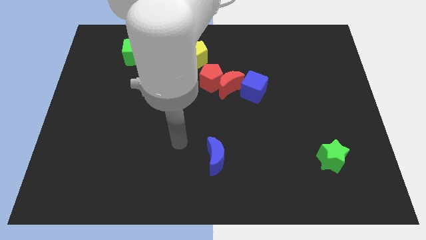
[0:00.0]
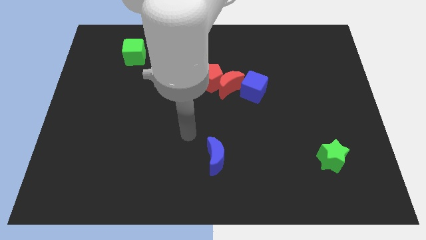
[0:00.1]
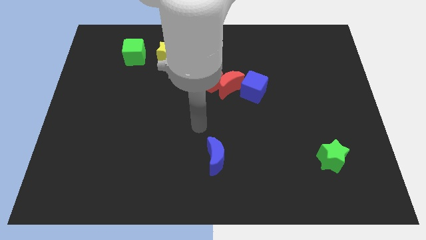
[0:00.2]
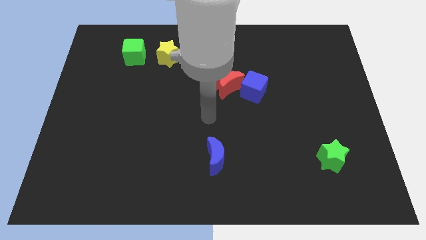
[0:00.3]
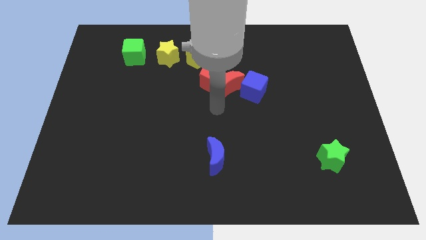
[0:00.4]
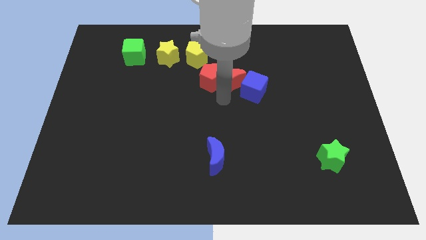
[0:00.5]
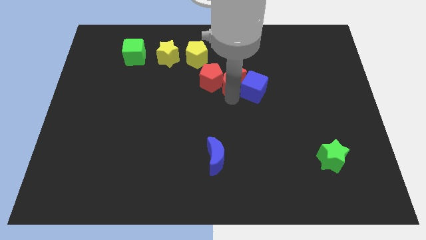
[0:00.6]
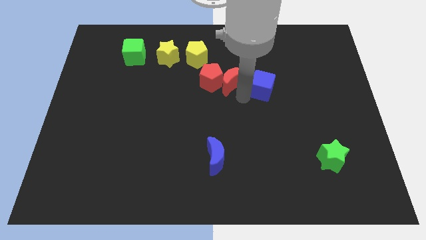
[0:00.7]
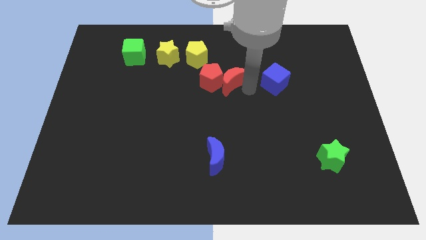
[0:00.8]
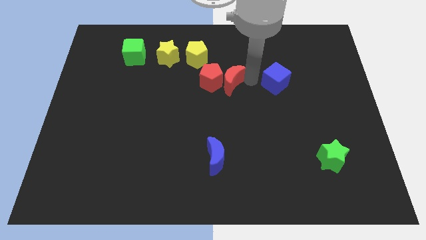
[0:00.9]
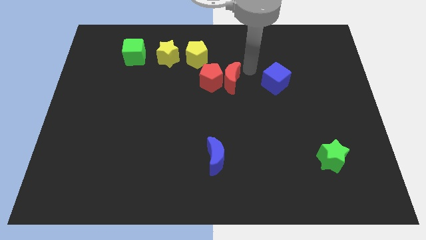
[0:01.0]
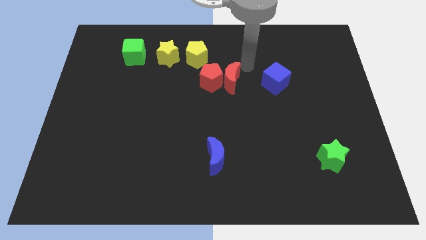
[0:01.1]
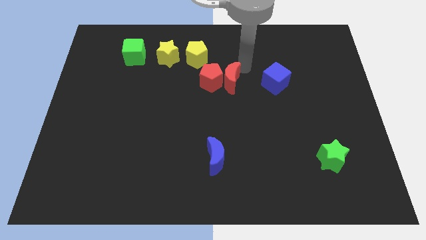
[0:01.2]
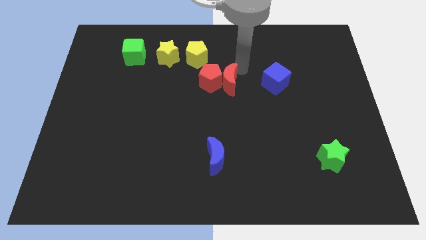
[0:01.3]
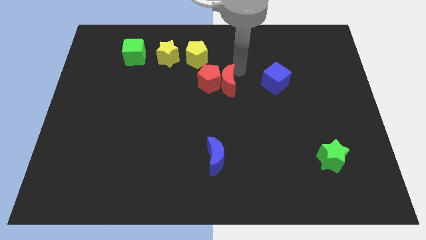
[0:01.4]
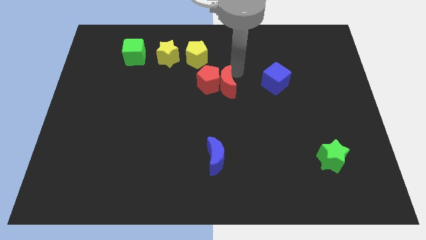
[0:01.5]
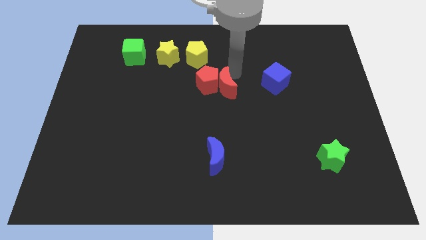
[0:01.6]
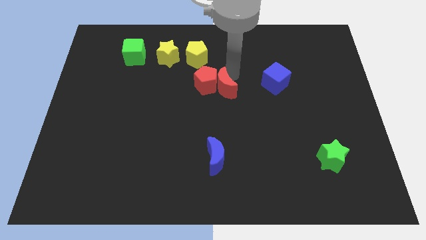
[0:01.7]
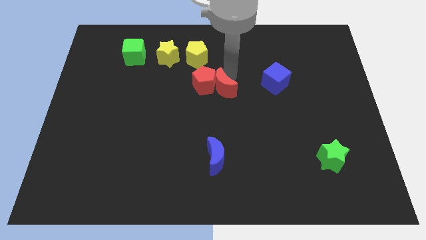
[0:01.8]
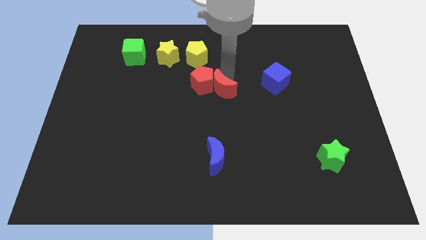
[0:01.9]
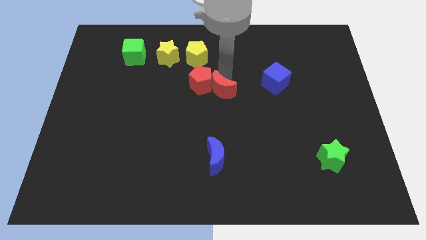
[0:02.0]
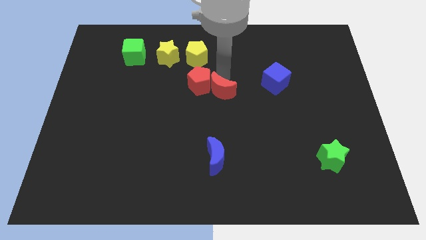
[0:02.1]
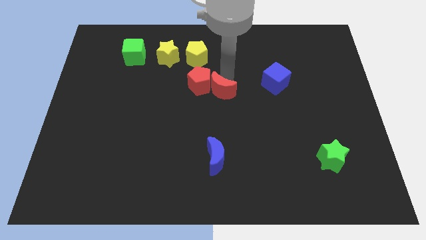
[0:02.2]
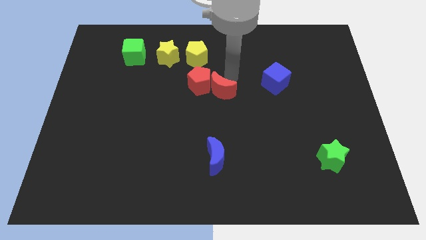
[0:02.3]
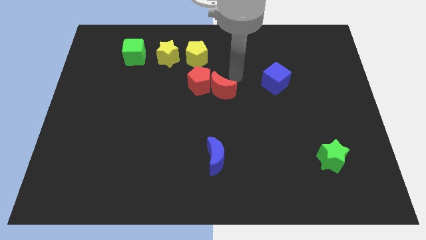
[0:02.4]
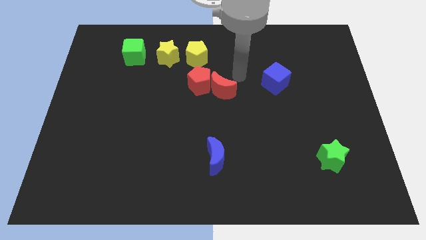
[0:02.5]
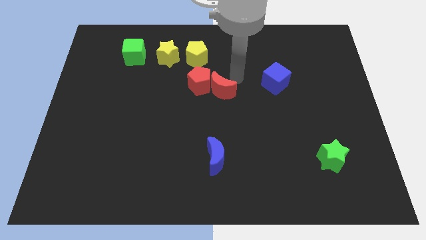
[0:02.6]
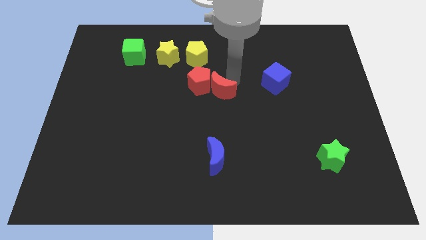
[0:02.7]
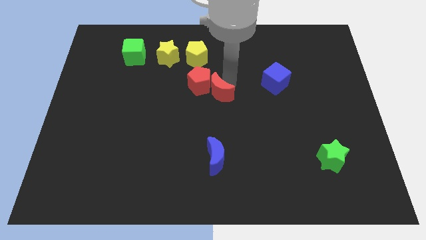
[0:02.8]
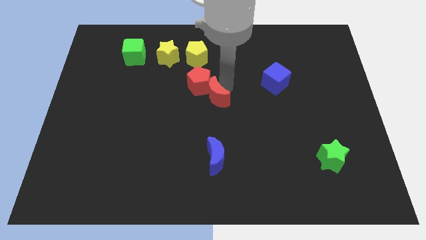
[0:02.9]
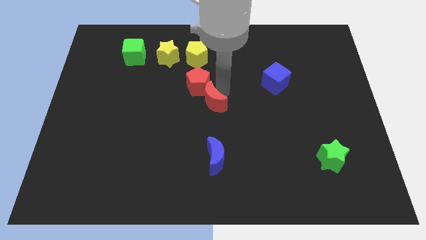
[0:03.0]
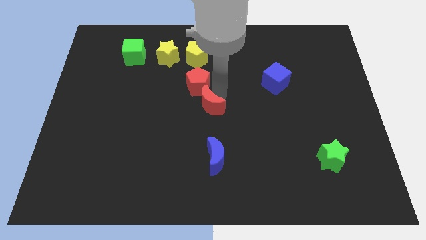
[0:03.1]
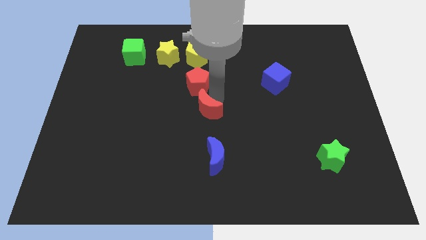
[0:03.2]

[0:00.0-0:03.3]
pull the red moon apart from the red pentagon and blue cube

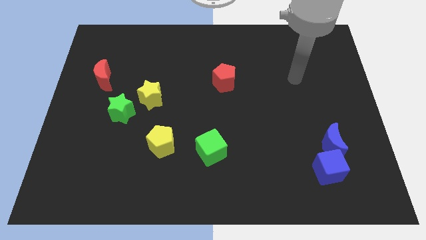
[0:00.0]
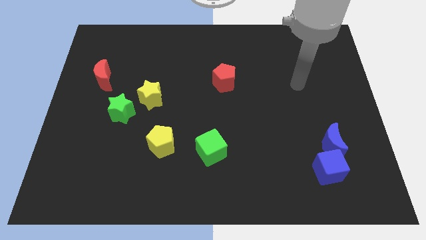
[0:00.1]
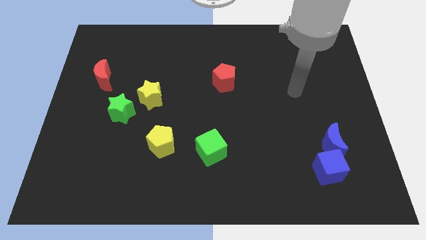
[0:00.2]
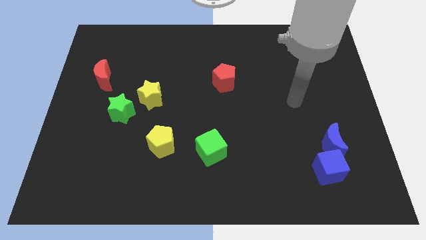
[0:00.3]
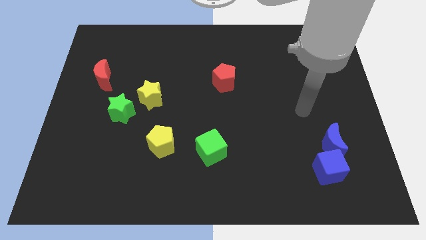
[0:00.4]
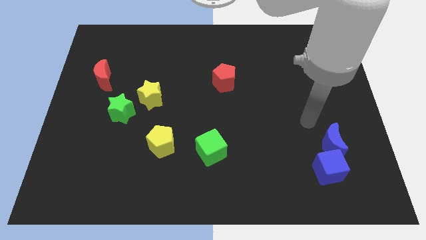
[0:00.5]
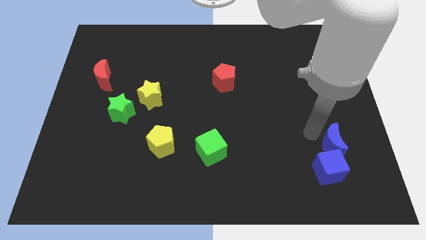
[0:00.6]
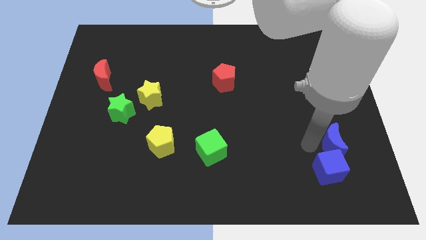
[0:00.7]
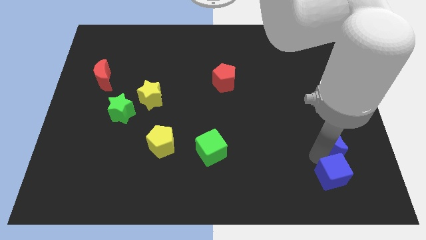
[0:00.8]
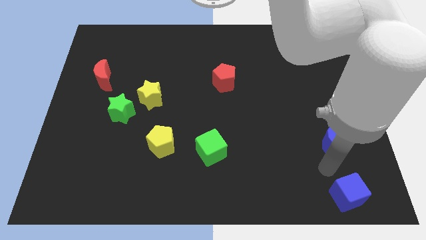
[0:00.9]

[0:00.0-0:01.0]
move the blue moon away from the blue cube

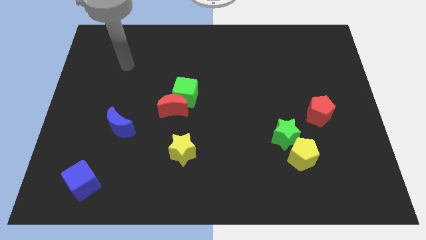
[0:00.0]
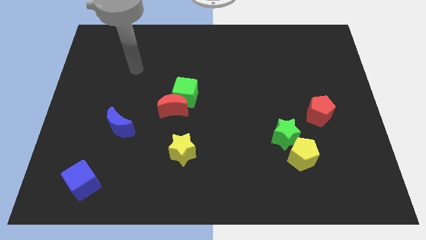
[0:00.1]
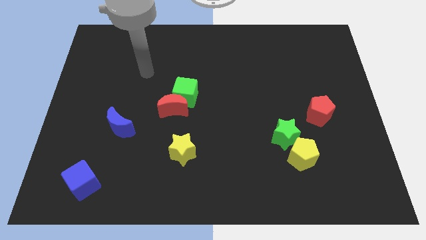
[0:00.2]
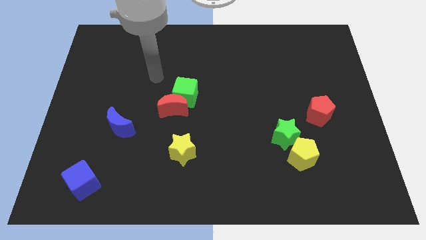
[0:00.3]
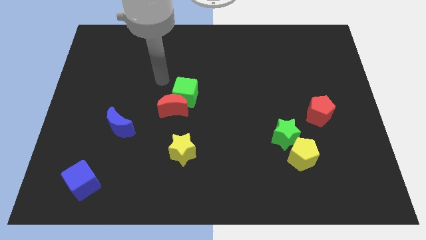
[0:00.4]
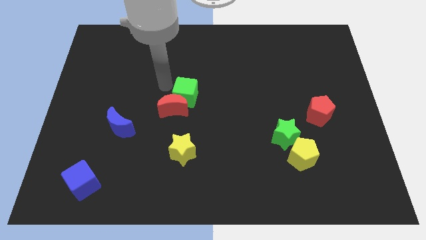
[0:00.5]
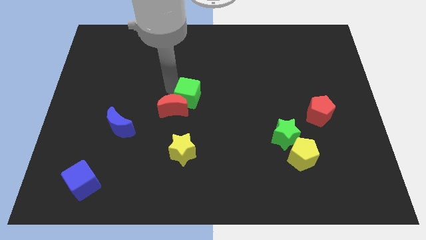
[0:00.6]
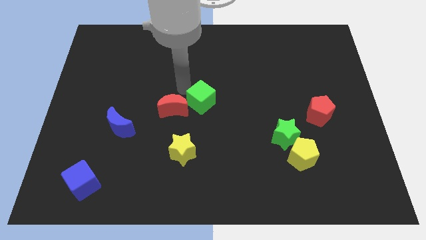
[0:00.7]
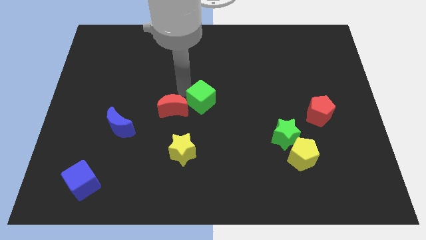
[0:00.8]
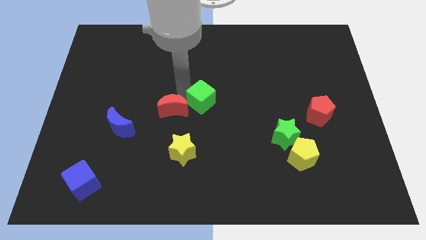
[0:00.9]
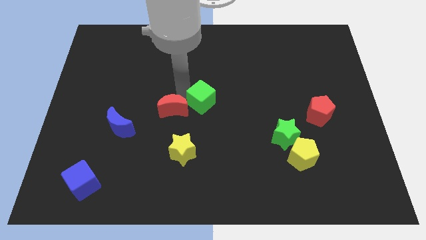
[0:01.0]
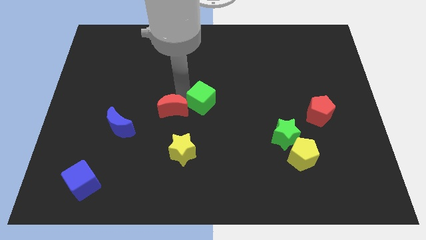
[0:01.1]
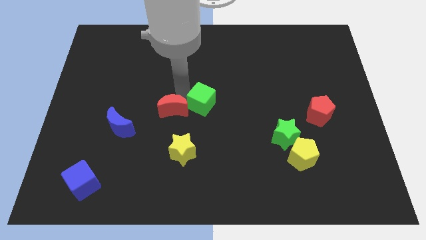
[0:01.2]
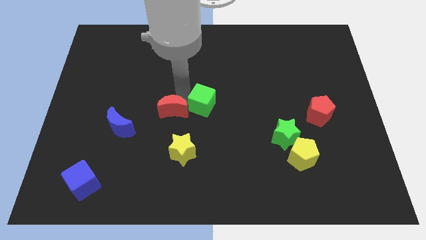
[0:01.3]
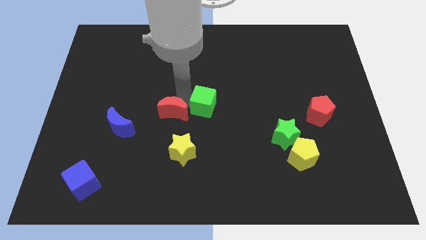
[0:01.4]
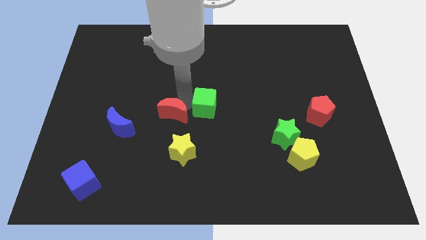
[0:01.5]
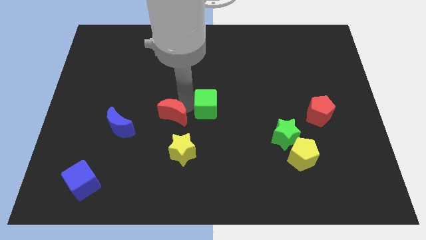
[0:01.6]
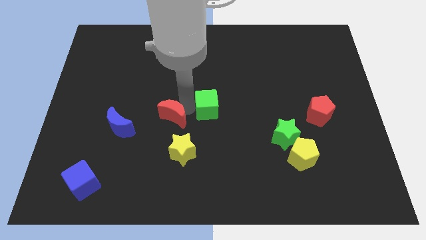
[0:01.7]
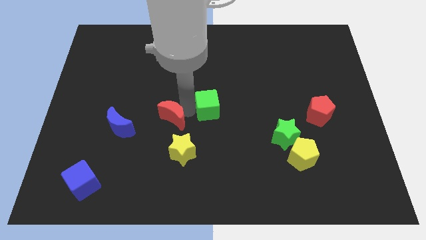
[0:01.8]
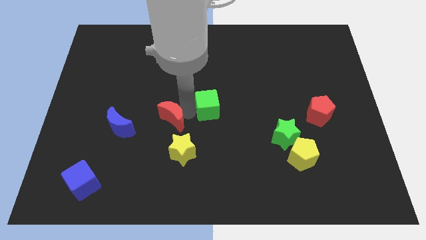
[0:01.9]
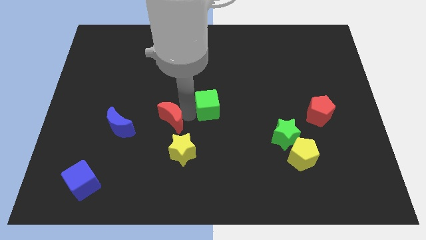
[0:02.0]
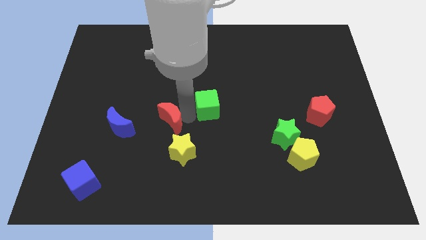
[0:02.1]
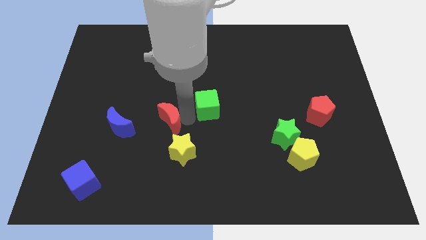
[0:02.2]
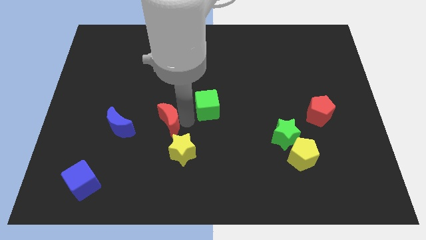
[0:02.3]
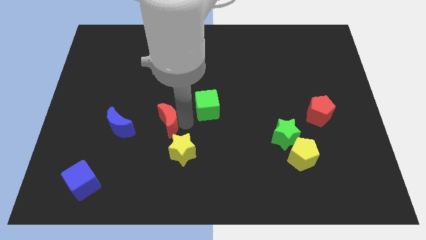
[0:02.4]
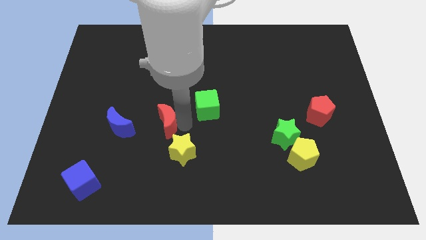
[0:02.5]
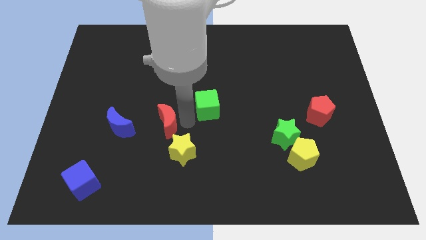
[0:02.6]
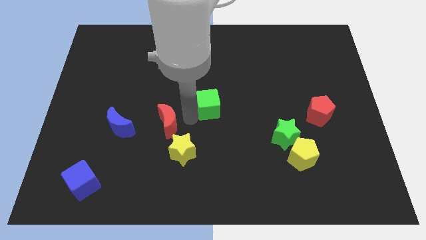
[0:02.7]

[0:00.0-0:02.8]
move the red moon away from the green cube

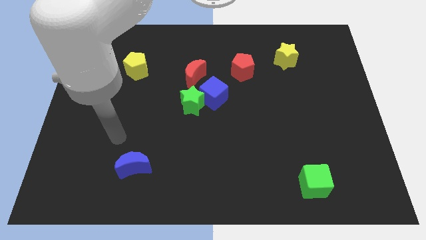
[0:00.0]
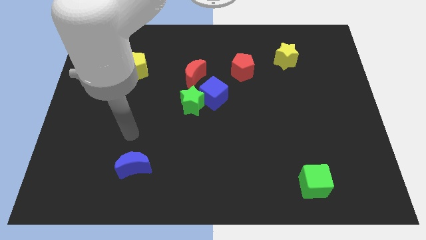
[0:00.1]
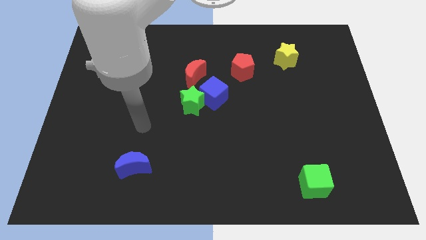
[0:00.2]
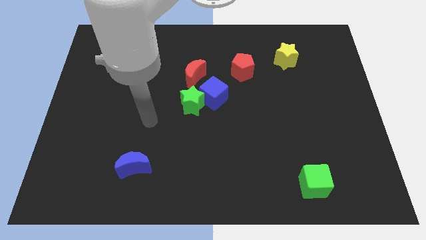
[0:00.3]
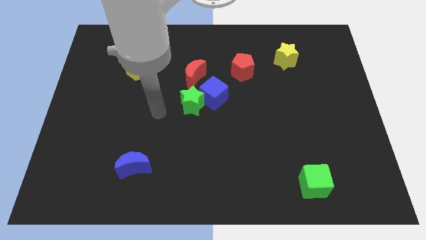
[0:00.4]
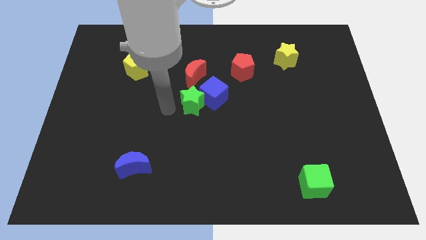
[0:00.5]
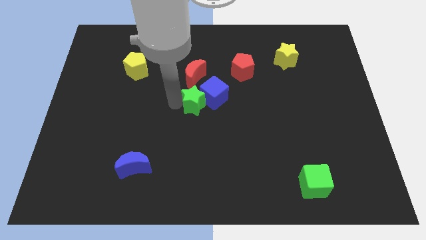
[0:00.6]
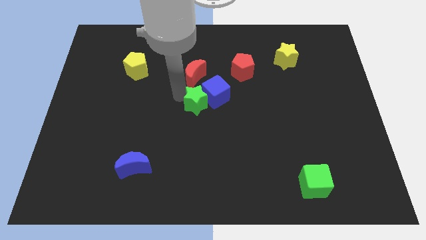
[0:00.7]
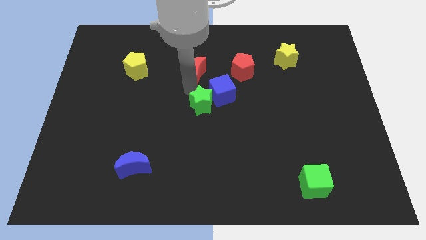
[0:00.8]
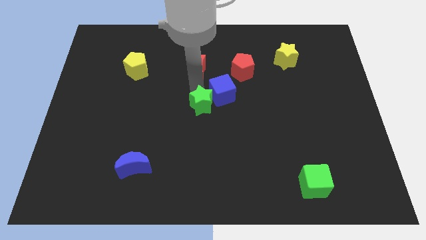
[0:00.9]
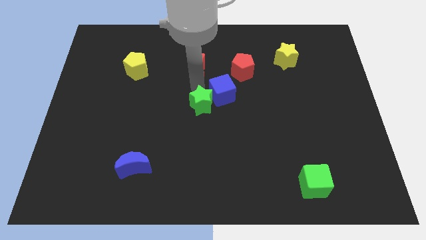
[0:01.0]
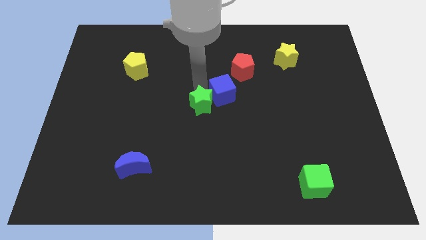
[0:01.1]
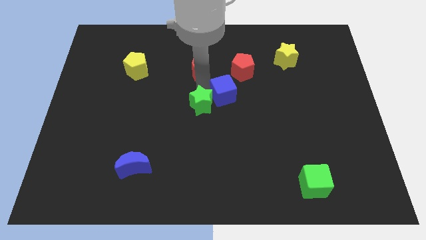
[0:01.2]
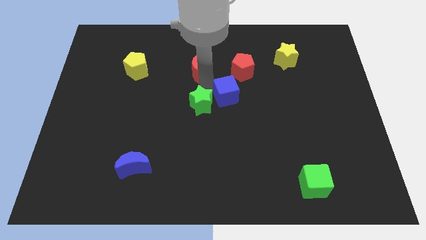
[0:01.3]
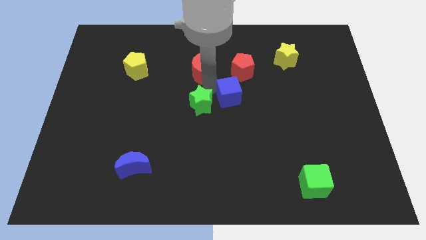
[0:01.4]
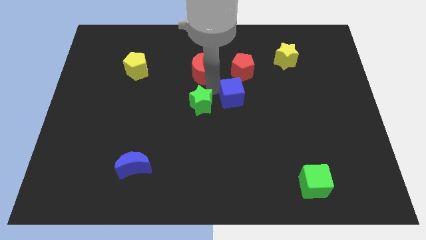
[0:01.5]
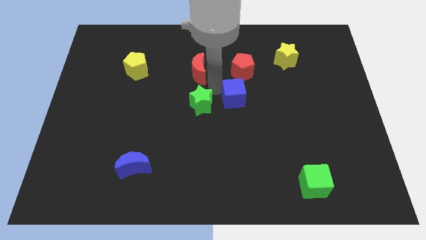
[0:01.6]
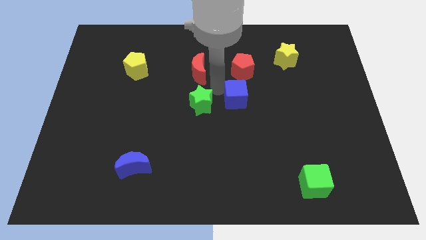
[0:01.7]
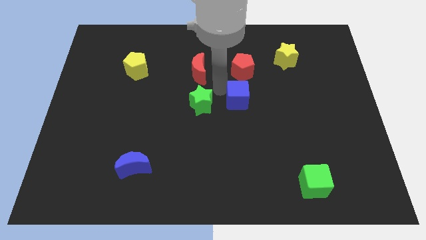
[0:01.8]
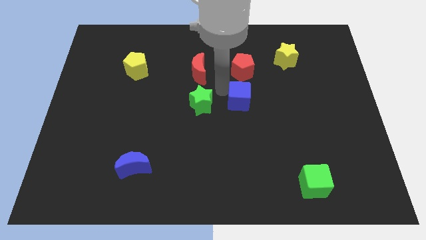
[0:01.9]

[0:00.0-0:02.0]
move the blue cube away from the green star and red moon

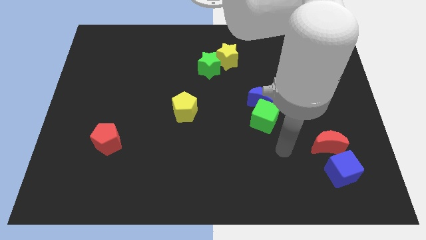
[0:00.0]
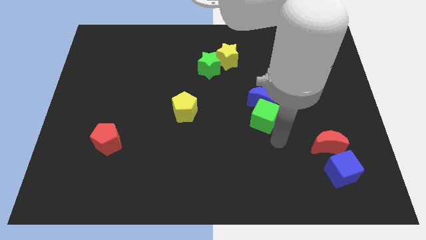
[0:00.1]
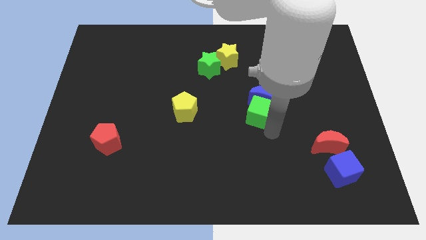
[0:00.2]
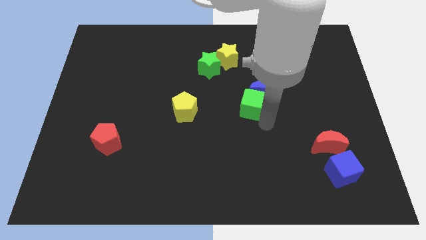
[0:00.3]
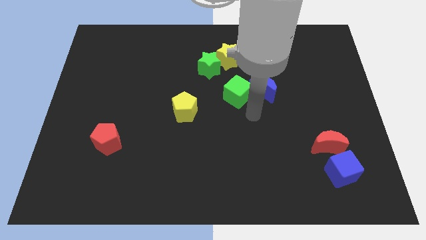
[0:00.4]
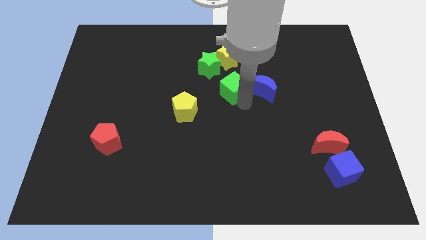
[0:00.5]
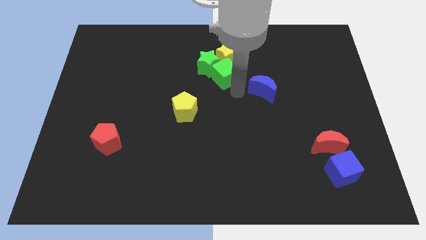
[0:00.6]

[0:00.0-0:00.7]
separate the blue moon from the green cube
